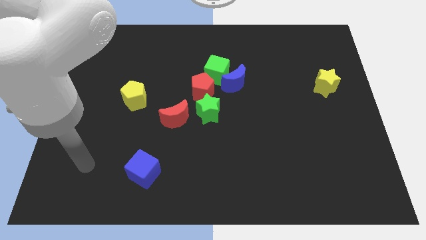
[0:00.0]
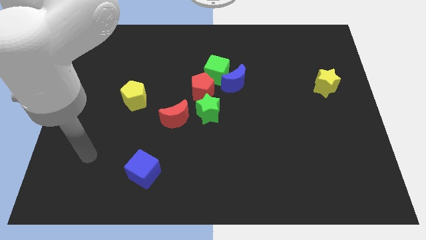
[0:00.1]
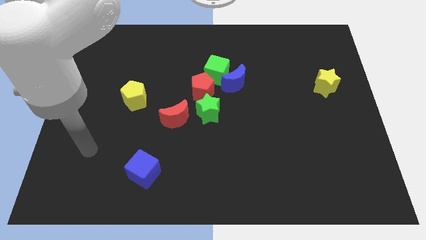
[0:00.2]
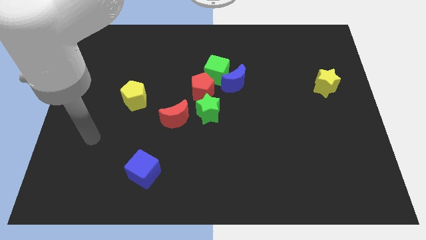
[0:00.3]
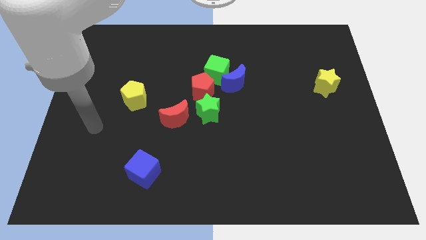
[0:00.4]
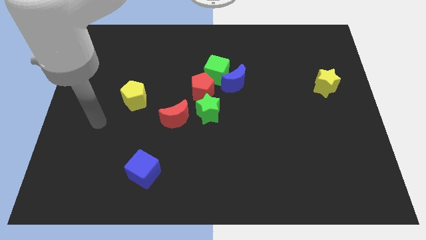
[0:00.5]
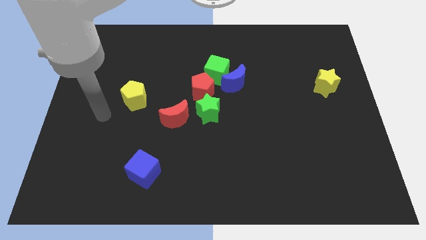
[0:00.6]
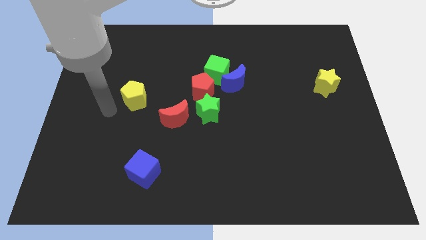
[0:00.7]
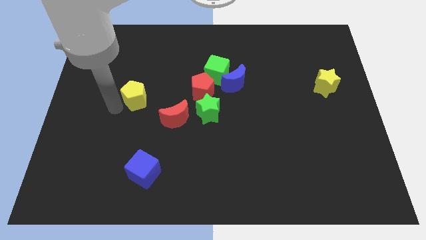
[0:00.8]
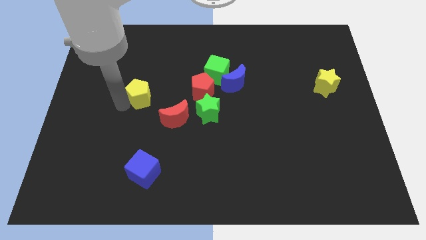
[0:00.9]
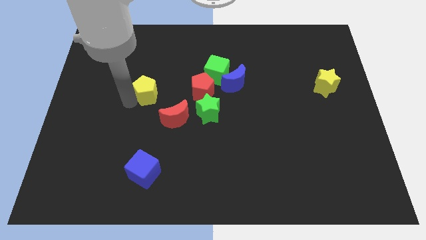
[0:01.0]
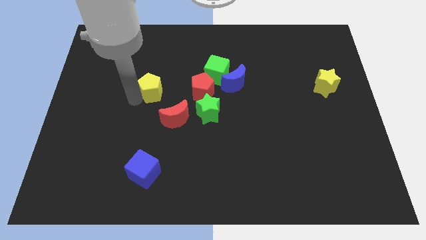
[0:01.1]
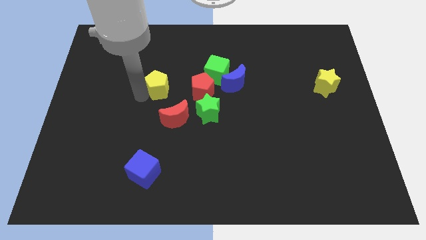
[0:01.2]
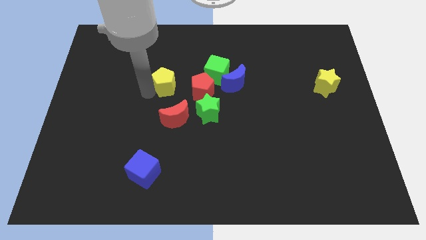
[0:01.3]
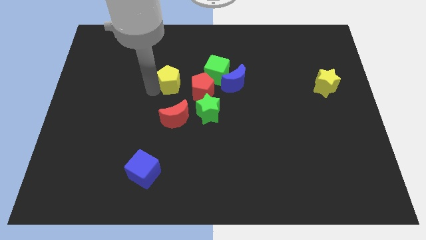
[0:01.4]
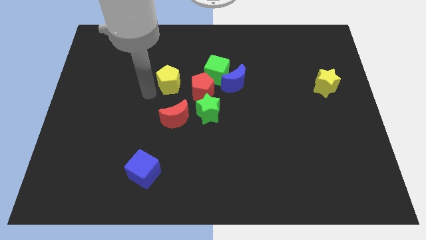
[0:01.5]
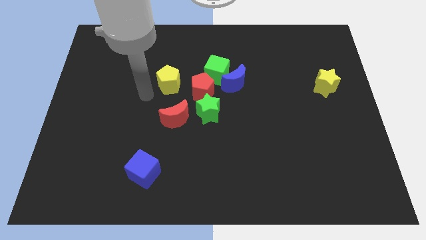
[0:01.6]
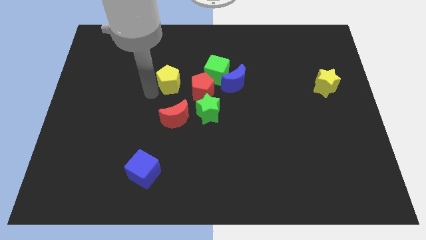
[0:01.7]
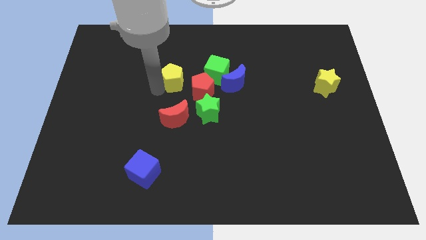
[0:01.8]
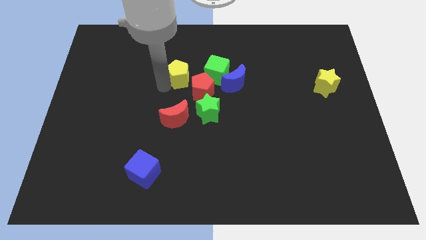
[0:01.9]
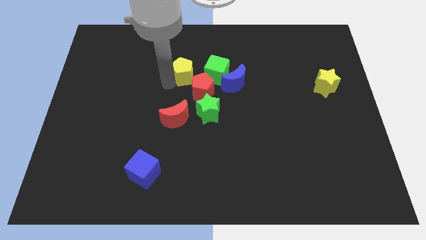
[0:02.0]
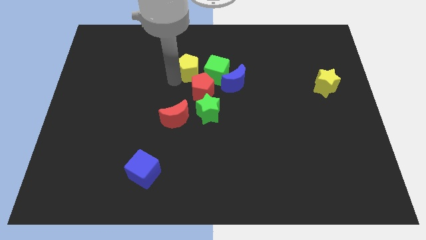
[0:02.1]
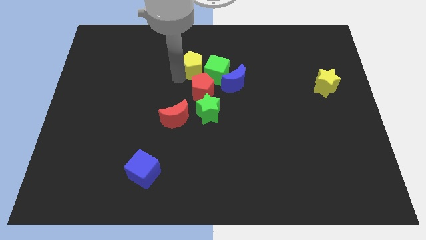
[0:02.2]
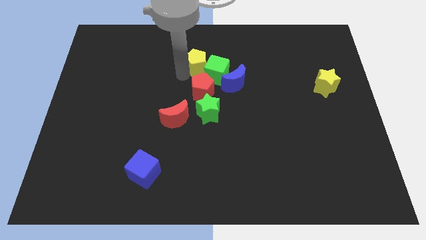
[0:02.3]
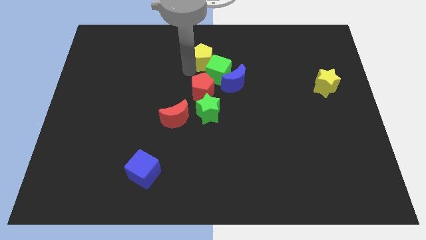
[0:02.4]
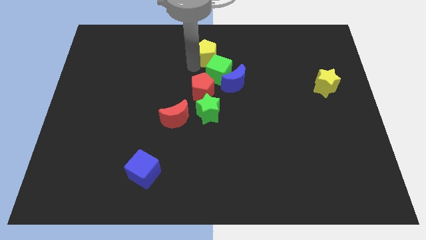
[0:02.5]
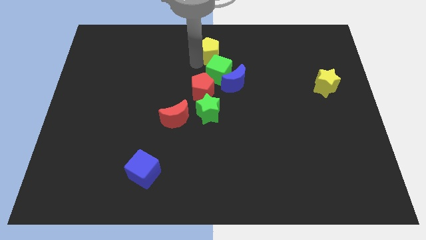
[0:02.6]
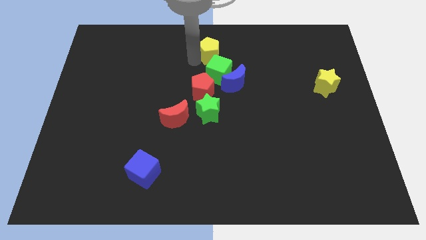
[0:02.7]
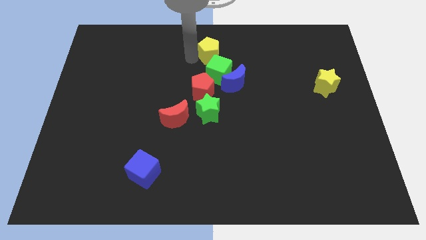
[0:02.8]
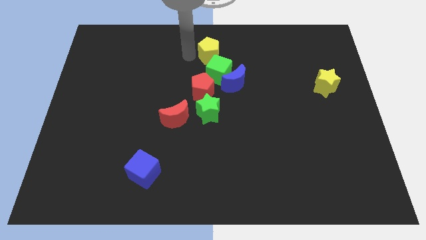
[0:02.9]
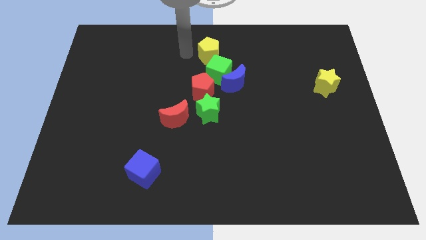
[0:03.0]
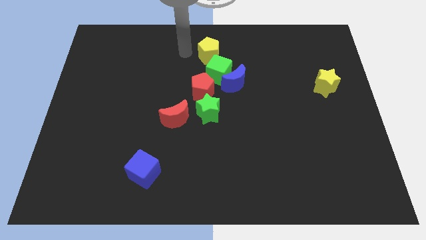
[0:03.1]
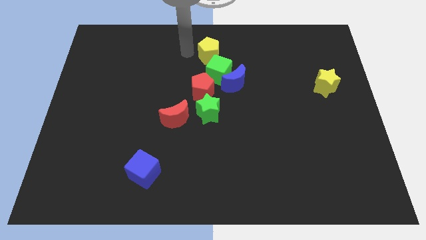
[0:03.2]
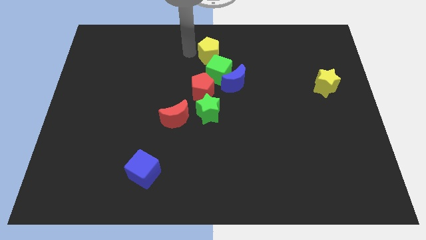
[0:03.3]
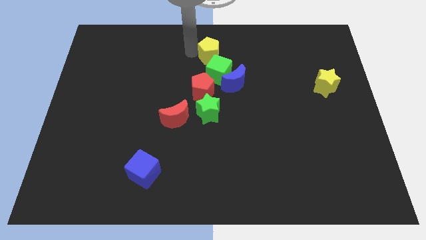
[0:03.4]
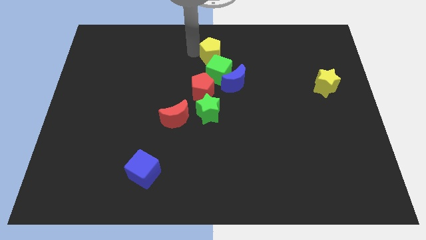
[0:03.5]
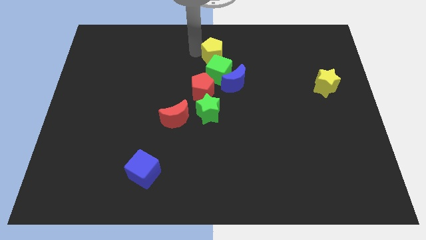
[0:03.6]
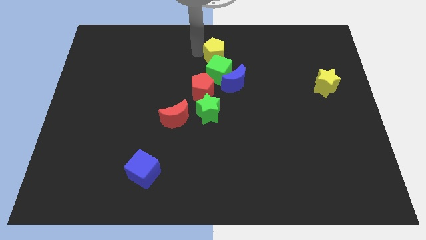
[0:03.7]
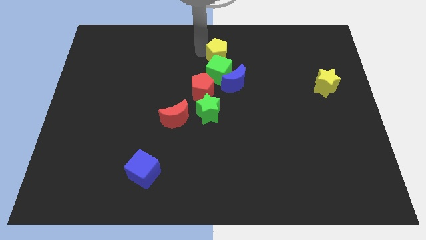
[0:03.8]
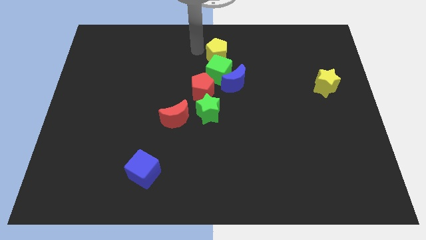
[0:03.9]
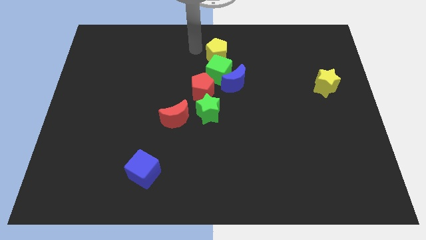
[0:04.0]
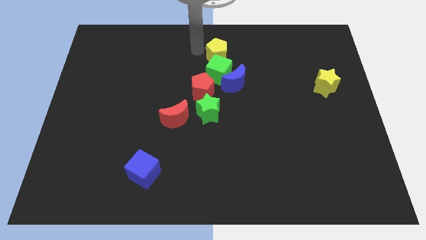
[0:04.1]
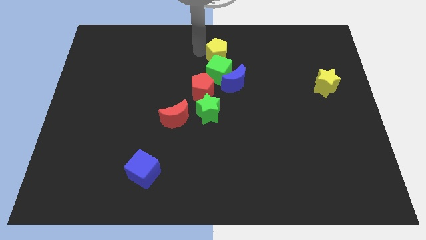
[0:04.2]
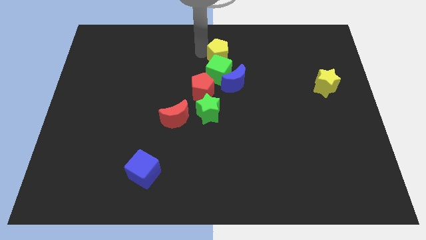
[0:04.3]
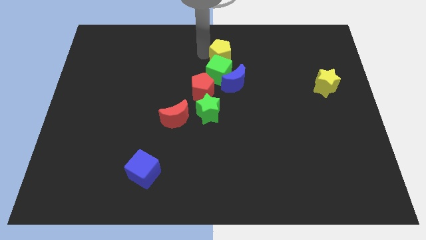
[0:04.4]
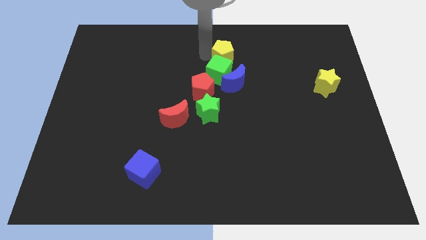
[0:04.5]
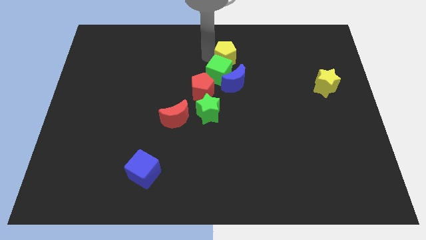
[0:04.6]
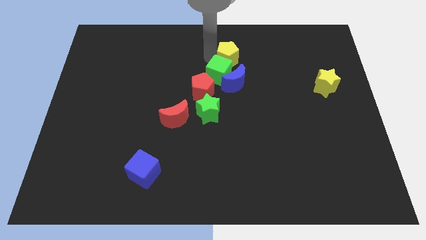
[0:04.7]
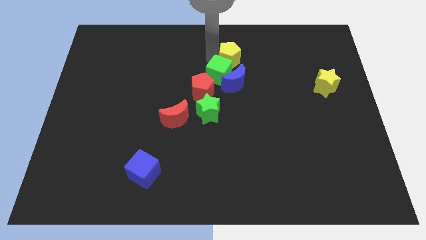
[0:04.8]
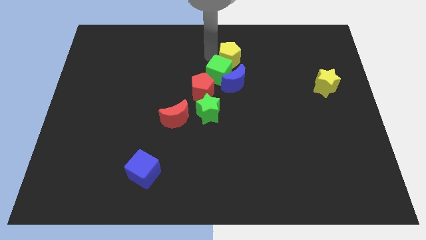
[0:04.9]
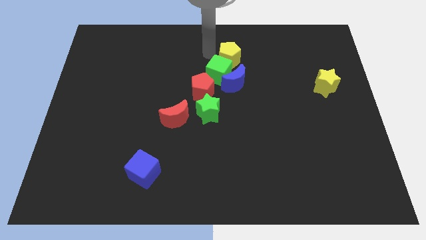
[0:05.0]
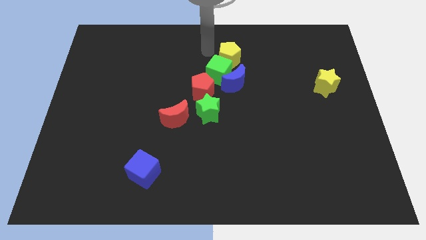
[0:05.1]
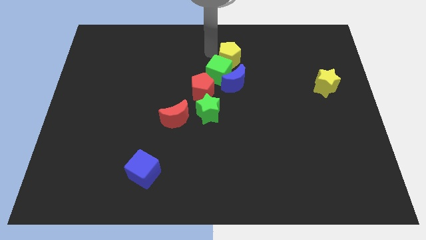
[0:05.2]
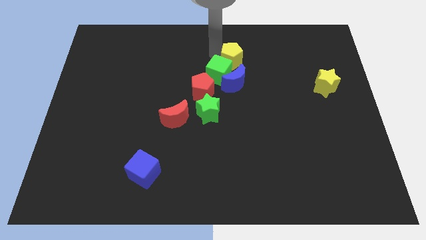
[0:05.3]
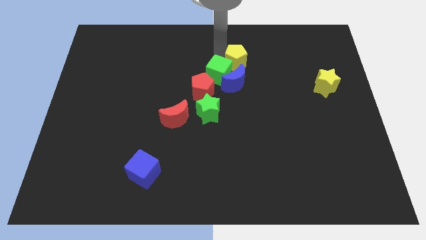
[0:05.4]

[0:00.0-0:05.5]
slide the yellow pentagon right of the green cube

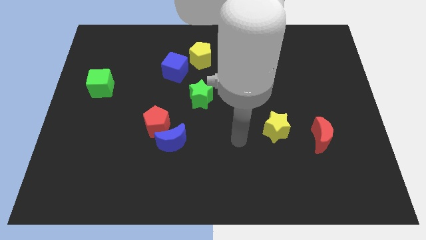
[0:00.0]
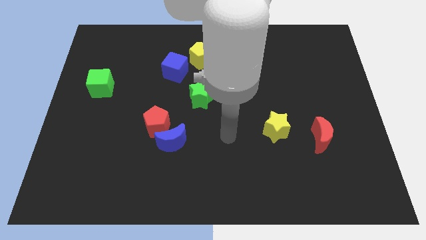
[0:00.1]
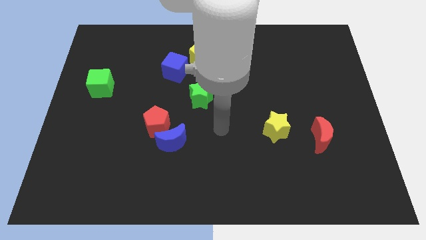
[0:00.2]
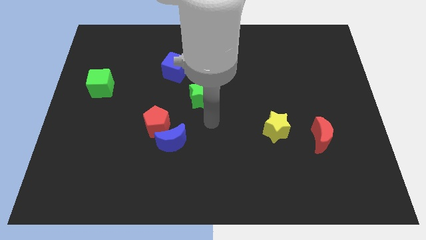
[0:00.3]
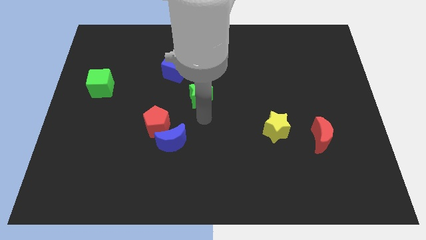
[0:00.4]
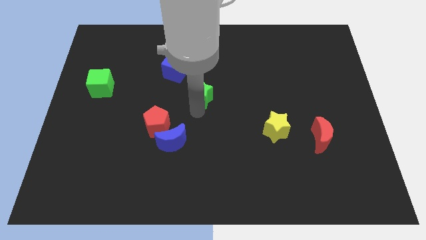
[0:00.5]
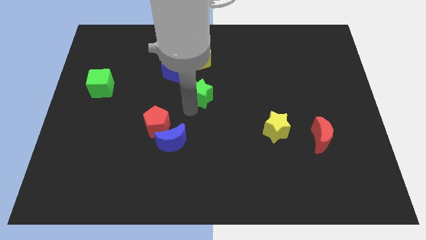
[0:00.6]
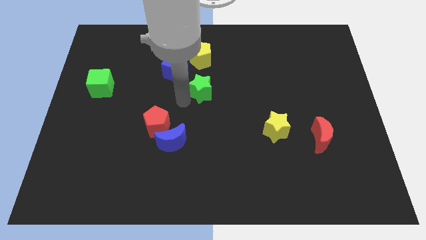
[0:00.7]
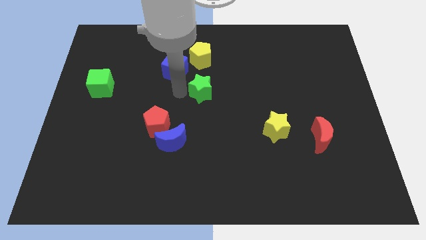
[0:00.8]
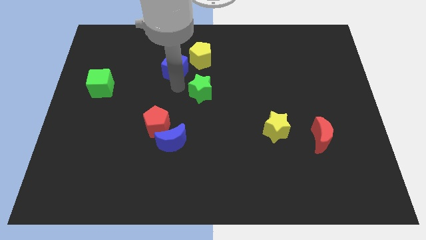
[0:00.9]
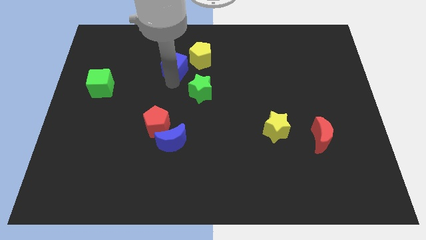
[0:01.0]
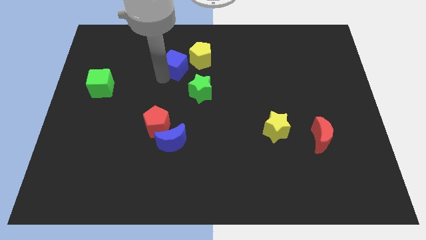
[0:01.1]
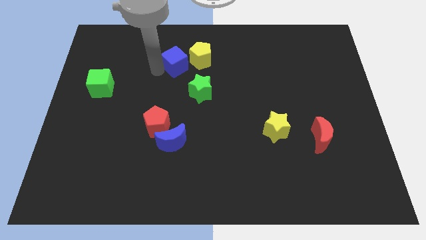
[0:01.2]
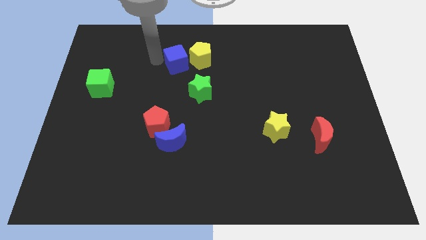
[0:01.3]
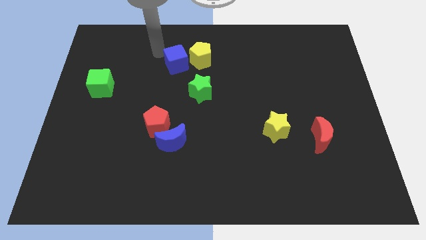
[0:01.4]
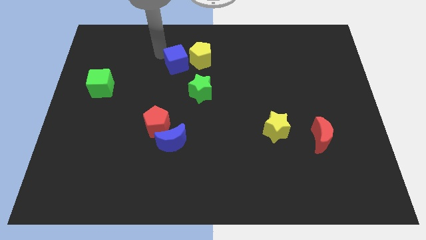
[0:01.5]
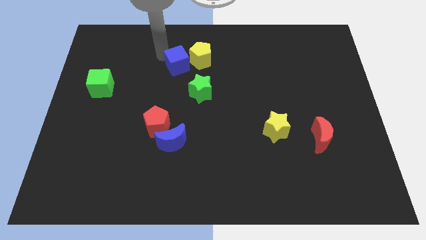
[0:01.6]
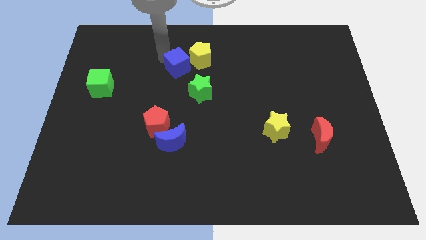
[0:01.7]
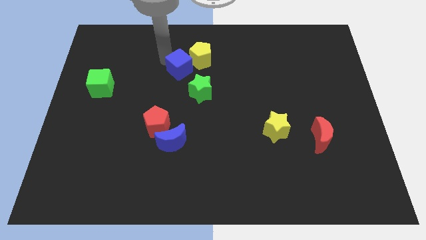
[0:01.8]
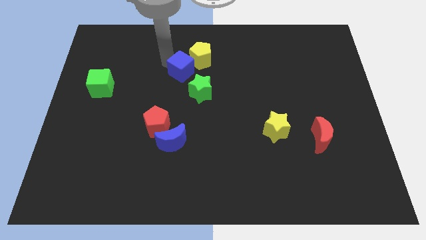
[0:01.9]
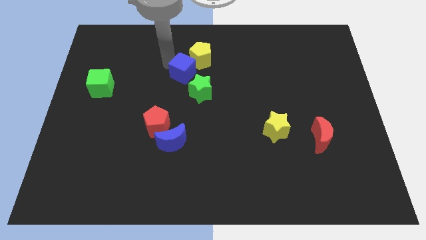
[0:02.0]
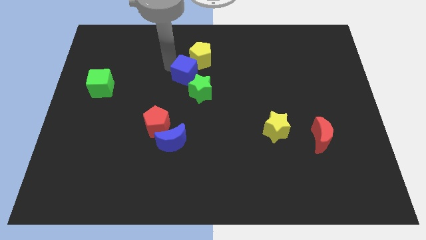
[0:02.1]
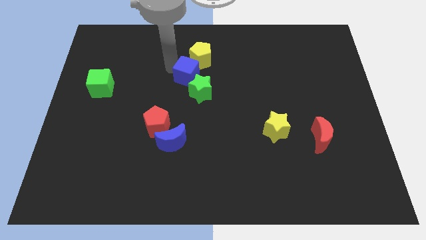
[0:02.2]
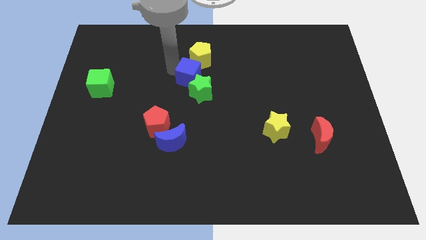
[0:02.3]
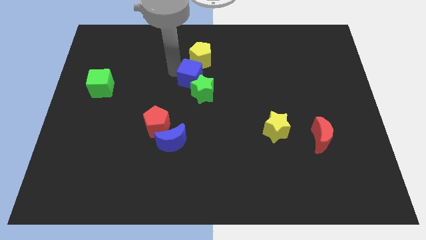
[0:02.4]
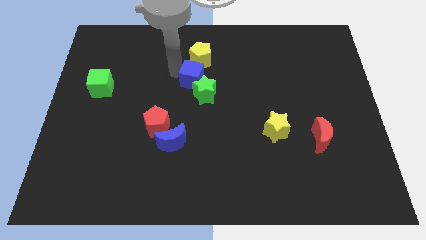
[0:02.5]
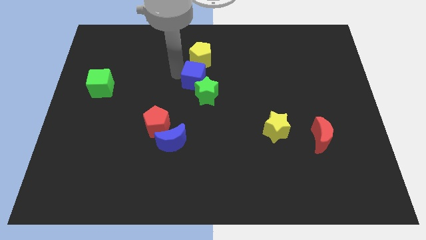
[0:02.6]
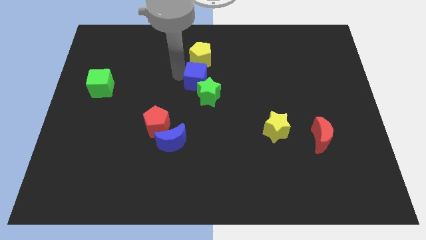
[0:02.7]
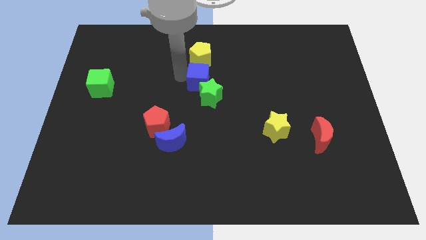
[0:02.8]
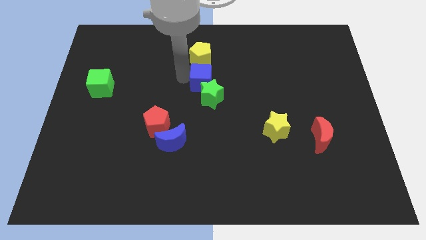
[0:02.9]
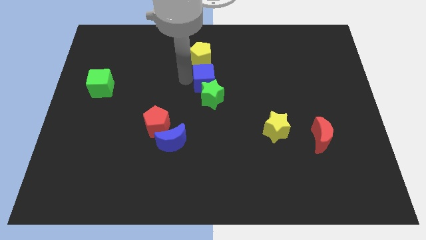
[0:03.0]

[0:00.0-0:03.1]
put the blue cube to the bottom right side of the yellow pentagon
